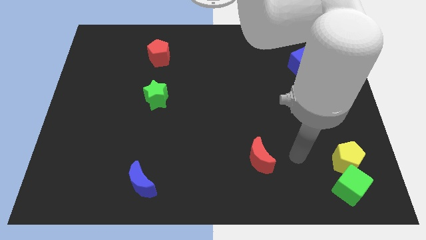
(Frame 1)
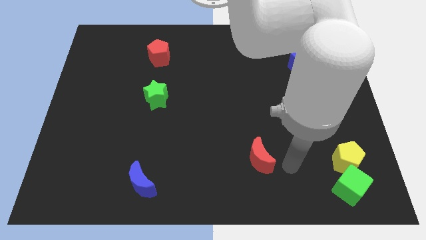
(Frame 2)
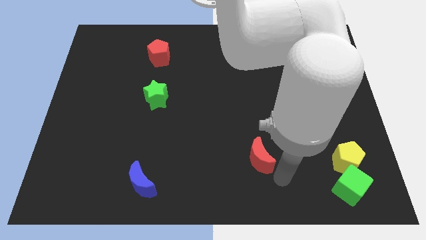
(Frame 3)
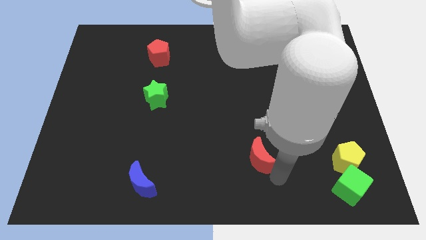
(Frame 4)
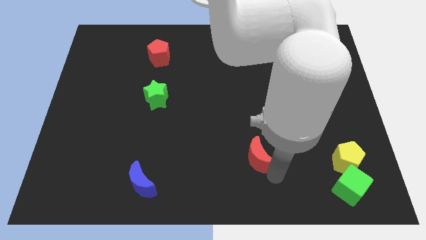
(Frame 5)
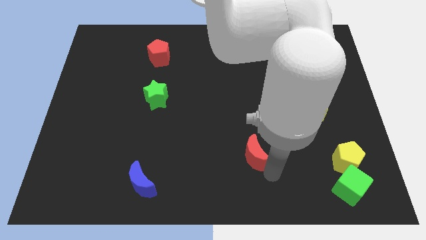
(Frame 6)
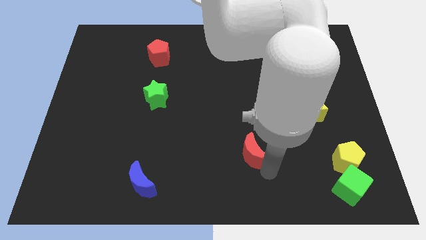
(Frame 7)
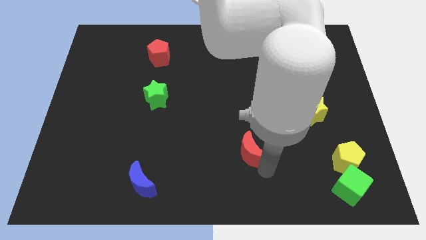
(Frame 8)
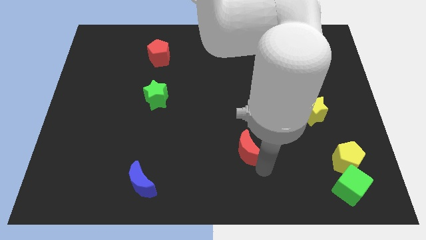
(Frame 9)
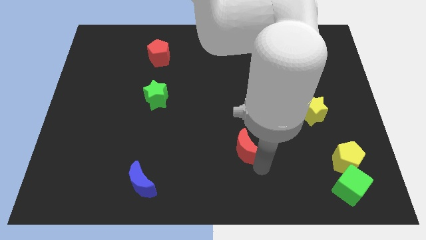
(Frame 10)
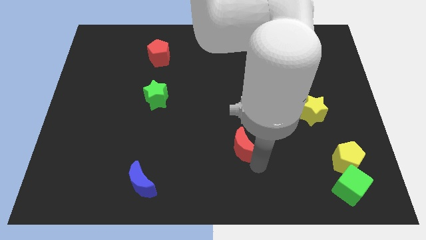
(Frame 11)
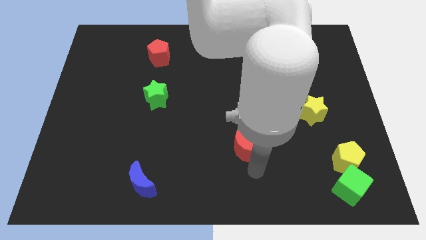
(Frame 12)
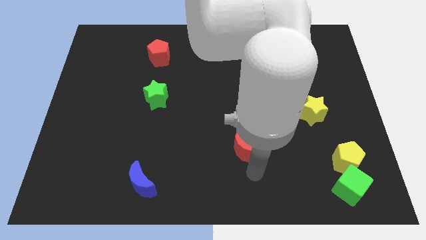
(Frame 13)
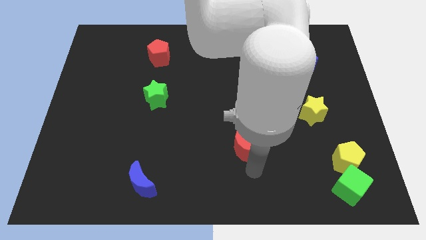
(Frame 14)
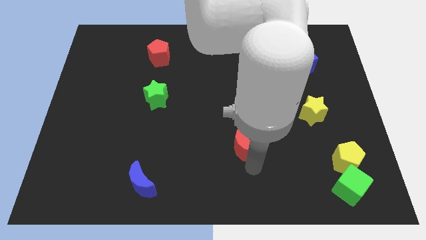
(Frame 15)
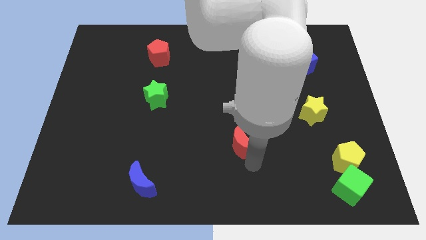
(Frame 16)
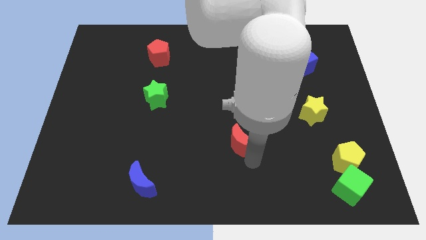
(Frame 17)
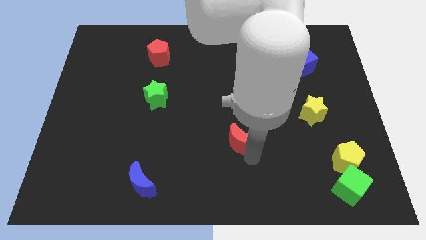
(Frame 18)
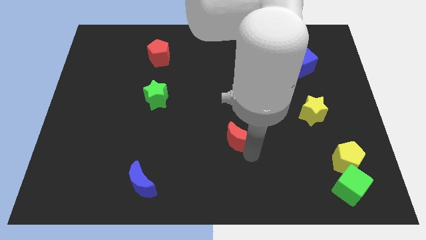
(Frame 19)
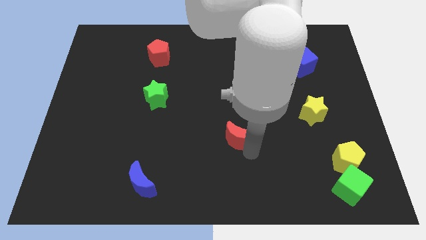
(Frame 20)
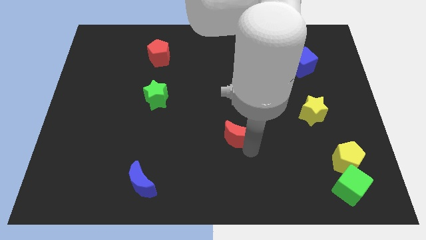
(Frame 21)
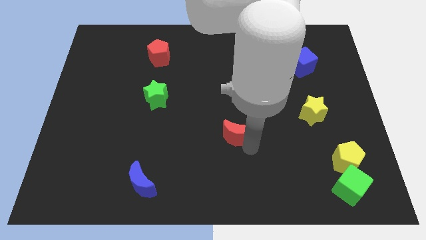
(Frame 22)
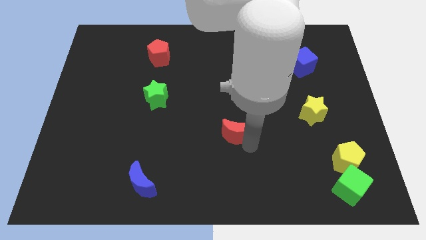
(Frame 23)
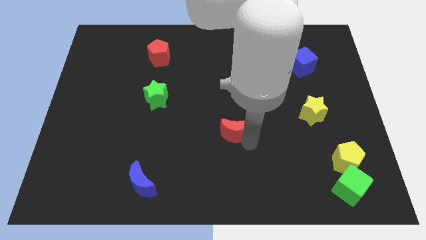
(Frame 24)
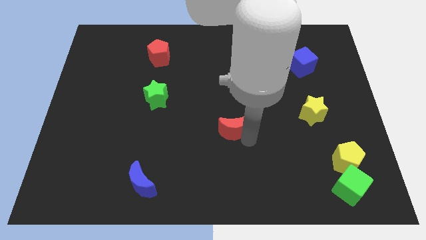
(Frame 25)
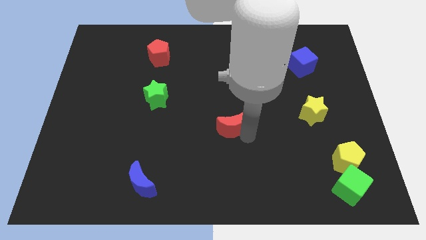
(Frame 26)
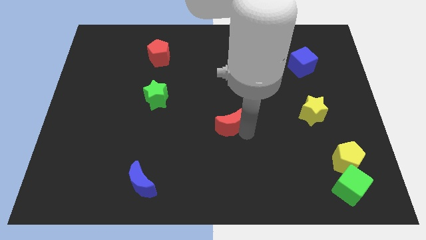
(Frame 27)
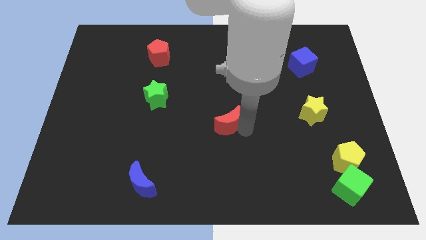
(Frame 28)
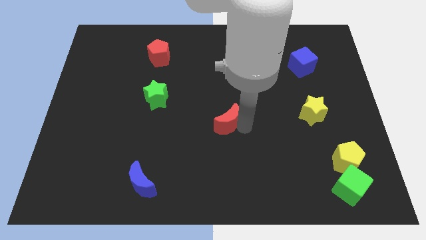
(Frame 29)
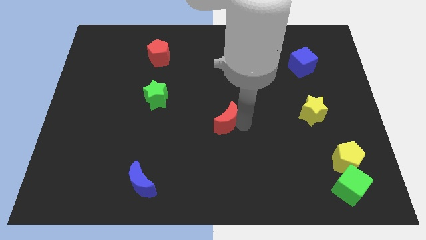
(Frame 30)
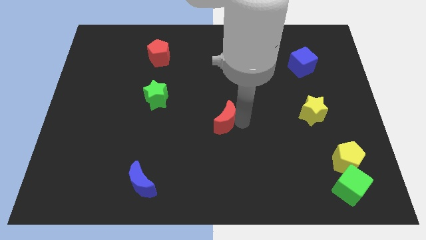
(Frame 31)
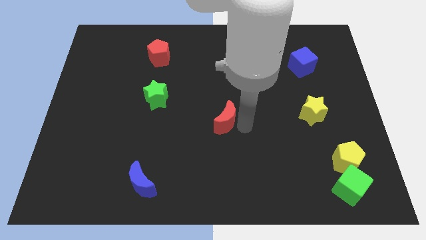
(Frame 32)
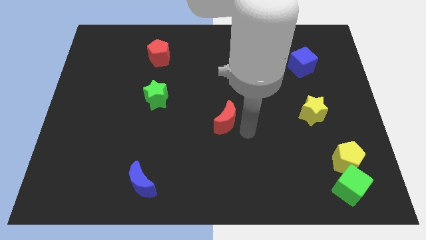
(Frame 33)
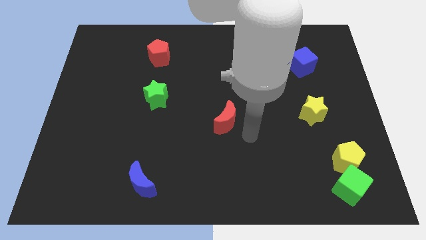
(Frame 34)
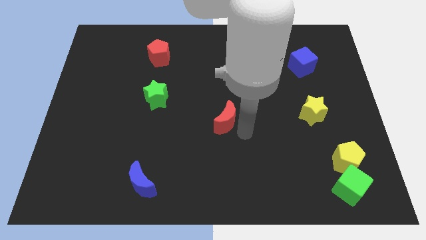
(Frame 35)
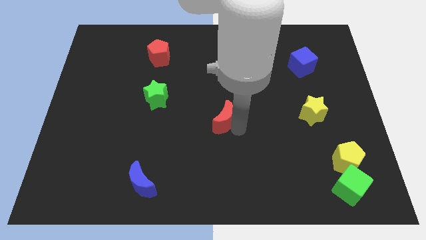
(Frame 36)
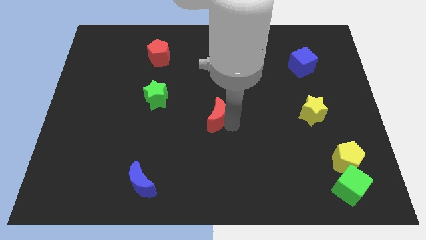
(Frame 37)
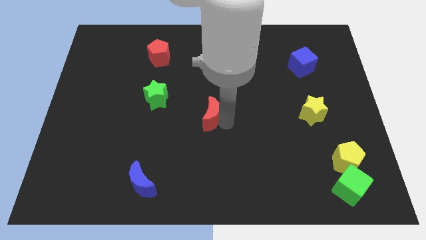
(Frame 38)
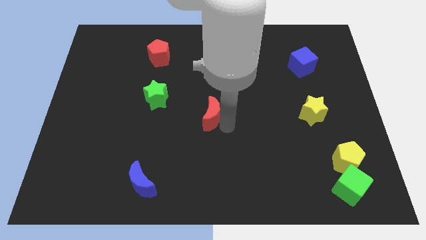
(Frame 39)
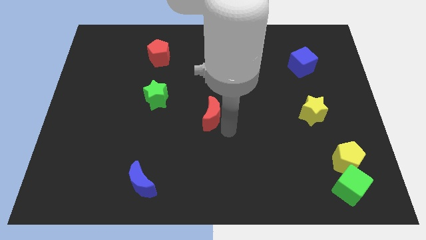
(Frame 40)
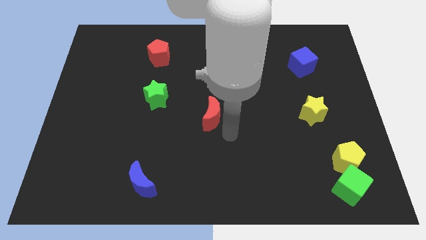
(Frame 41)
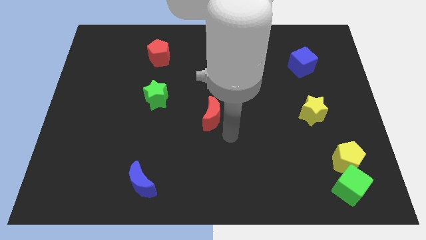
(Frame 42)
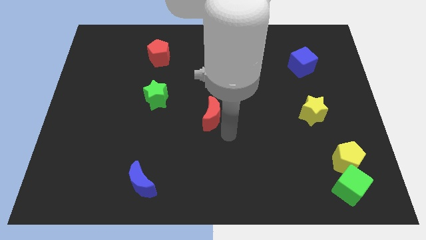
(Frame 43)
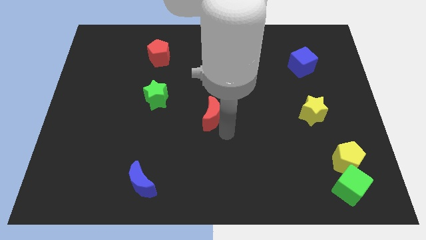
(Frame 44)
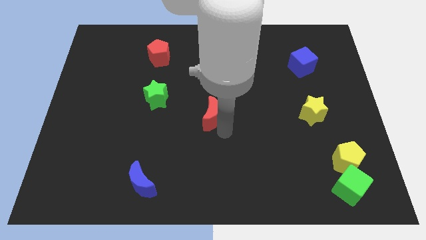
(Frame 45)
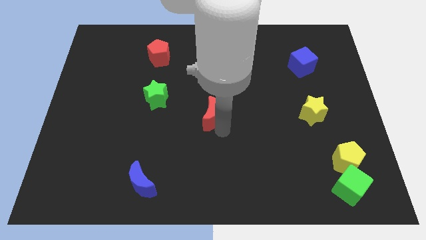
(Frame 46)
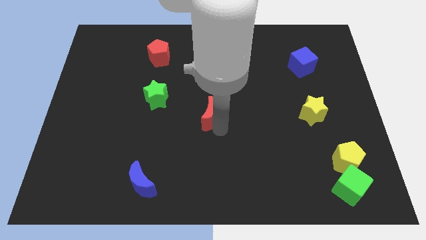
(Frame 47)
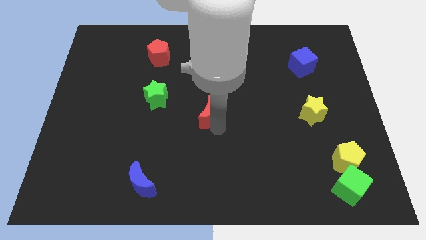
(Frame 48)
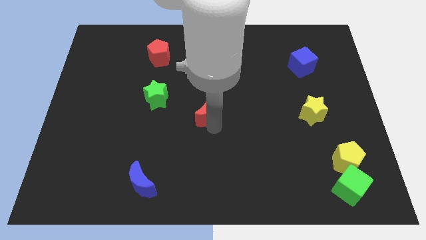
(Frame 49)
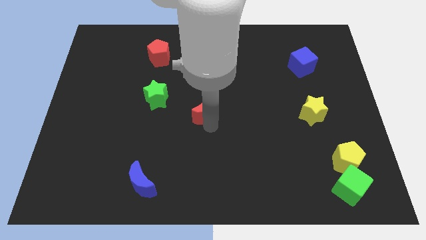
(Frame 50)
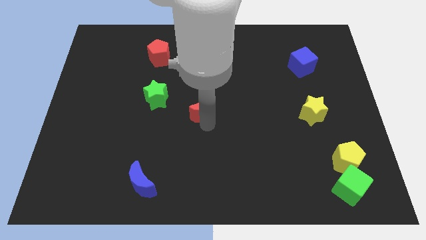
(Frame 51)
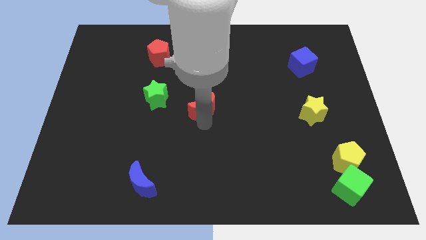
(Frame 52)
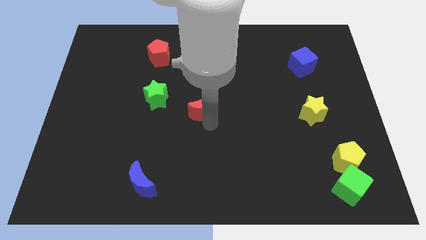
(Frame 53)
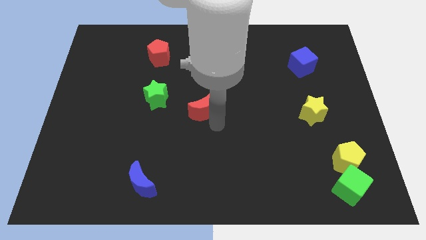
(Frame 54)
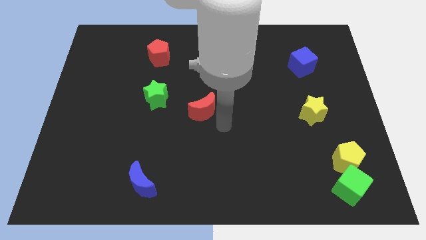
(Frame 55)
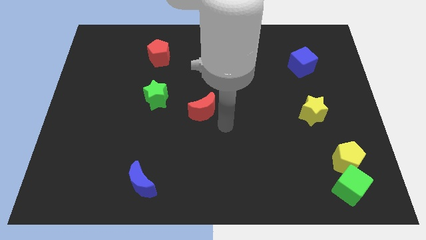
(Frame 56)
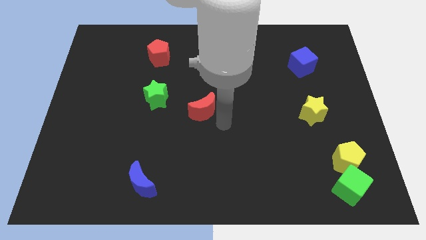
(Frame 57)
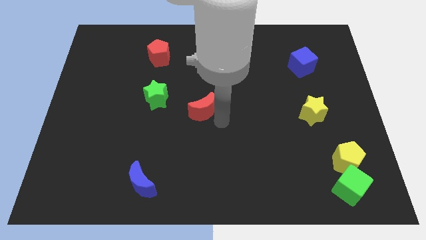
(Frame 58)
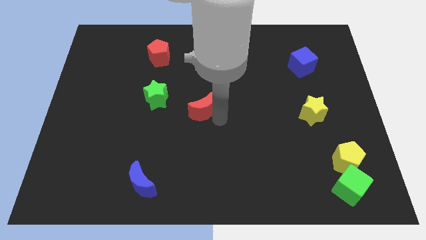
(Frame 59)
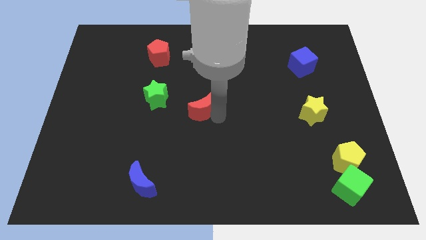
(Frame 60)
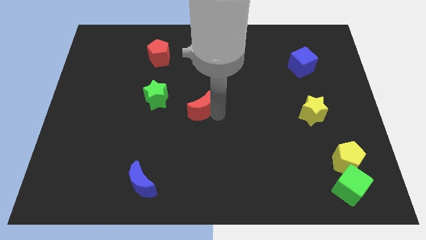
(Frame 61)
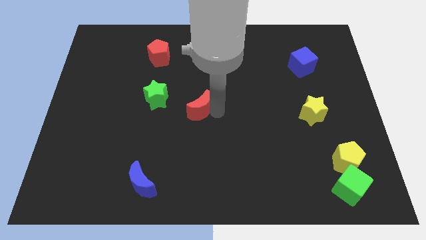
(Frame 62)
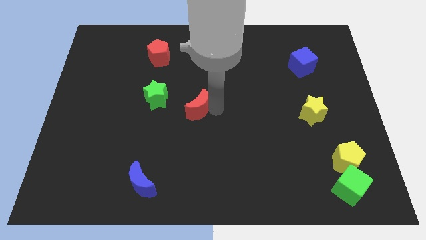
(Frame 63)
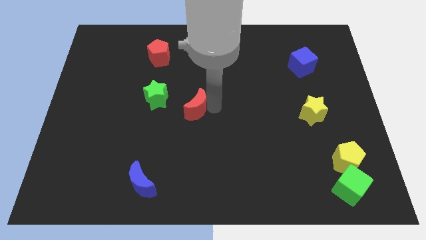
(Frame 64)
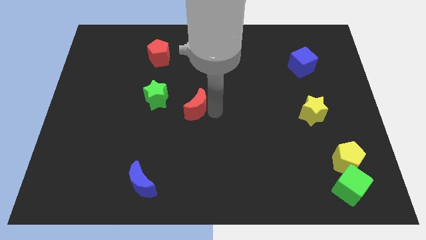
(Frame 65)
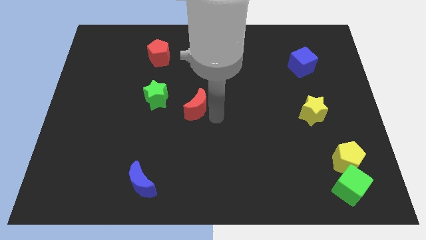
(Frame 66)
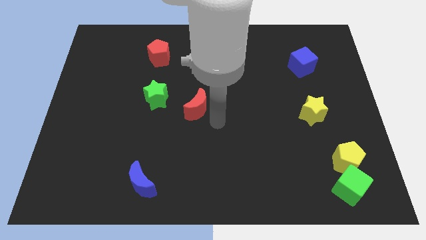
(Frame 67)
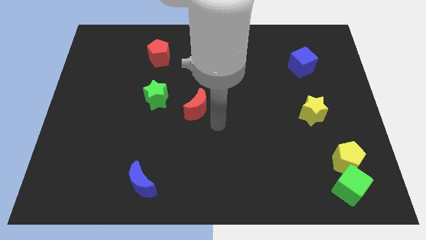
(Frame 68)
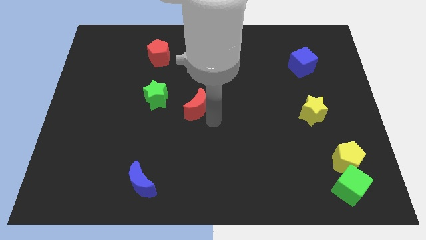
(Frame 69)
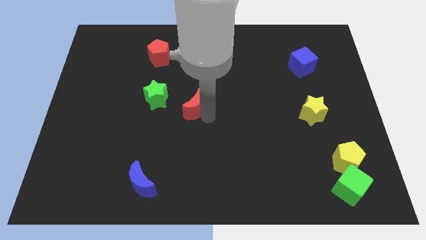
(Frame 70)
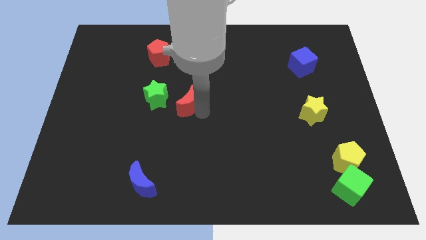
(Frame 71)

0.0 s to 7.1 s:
move the red moon upwards and left diagonally

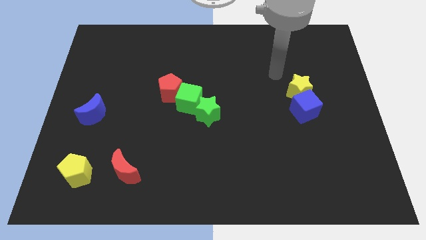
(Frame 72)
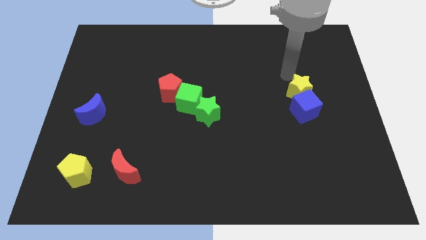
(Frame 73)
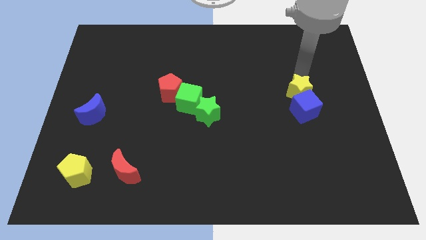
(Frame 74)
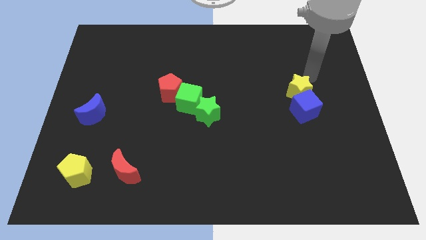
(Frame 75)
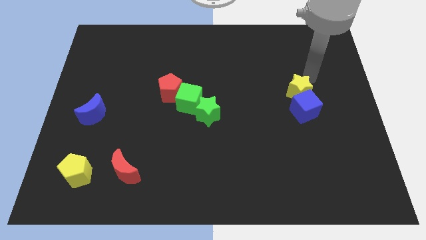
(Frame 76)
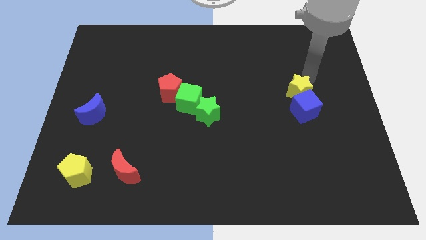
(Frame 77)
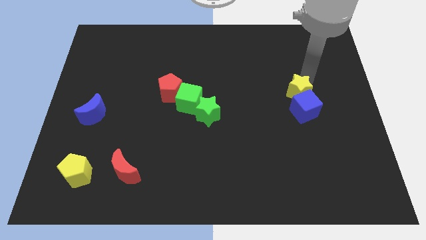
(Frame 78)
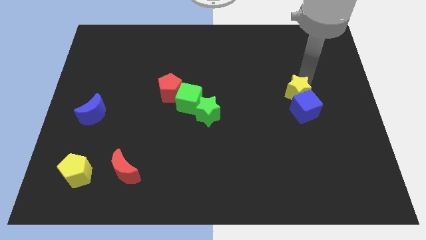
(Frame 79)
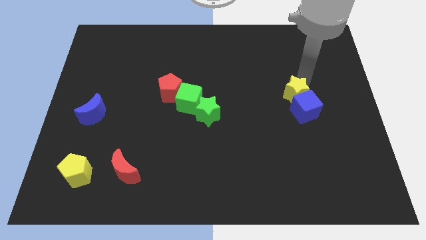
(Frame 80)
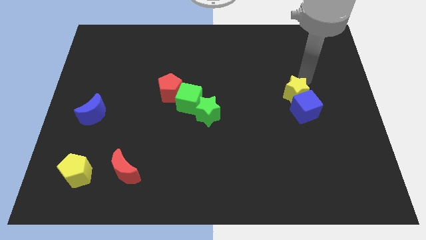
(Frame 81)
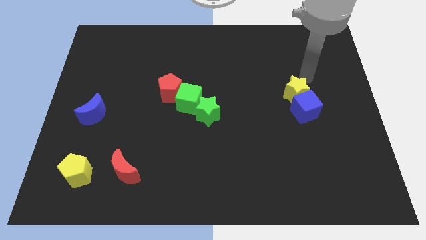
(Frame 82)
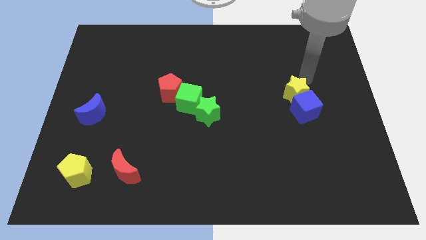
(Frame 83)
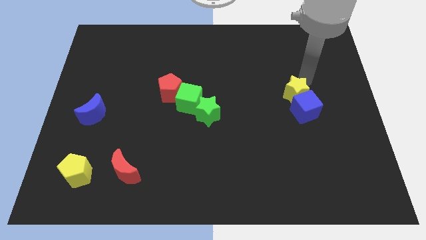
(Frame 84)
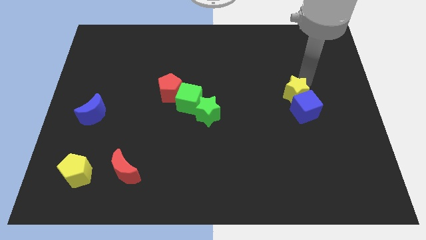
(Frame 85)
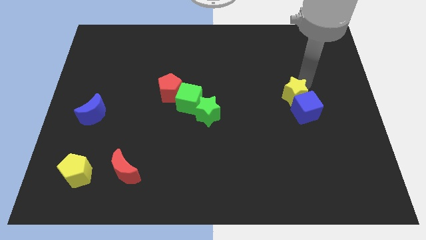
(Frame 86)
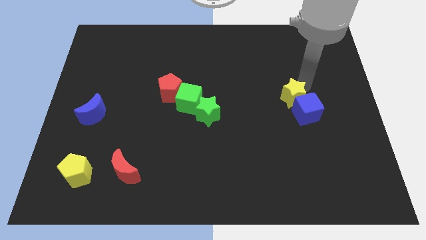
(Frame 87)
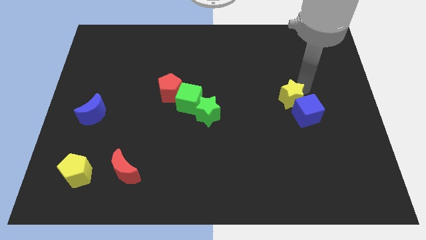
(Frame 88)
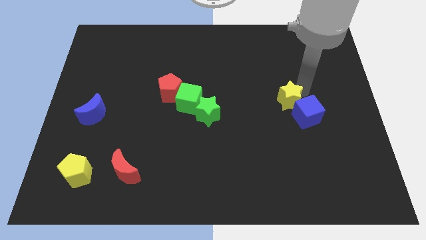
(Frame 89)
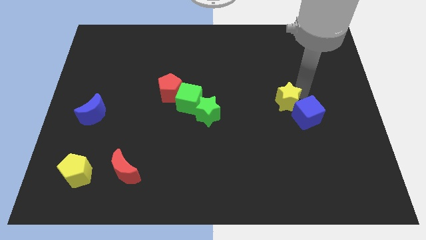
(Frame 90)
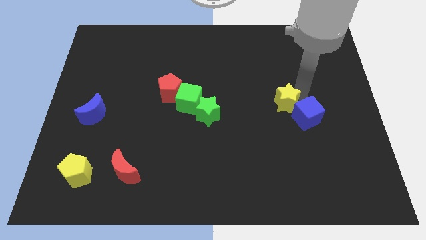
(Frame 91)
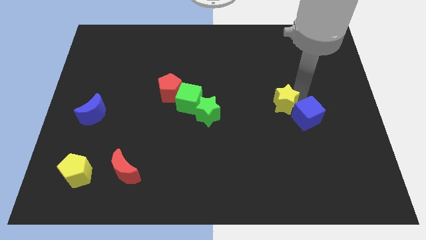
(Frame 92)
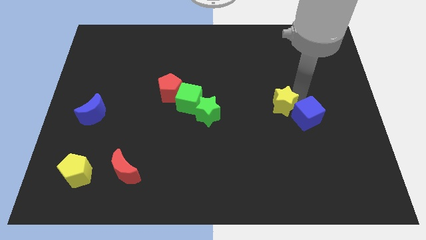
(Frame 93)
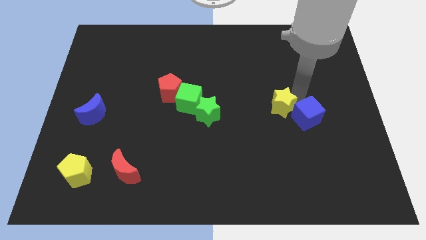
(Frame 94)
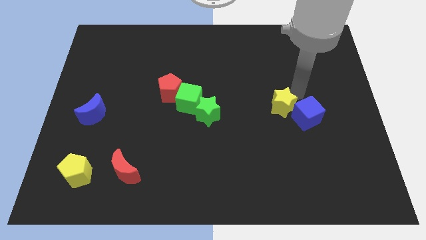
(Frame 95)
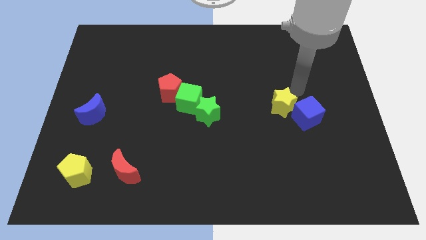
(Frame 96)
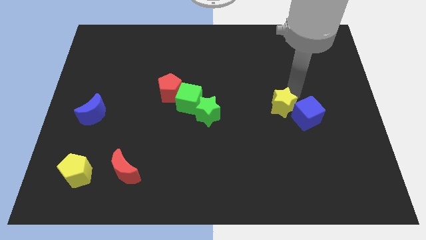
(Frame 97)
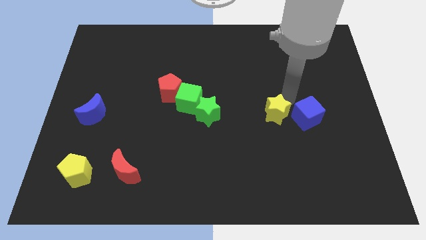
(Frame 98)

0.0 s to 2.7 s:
slightly move the yellow star down and then left
